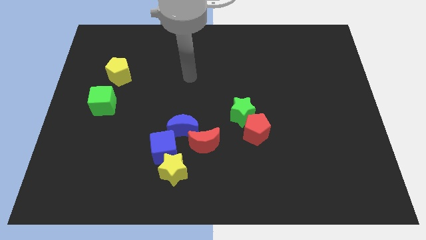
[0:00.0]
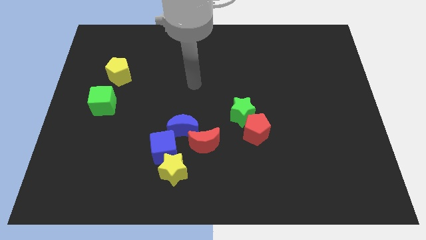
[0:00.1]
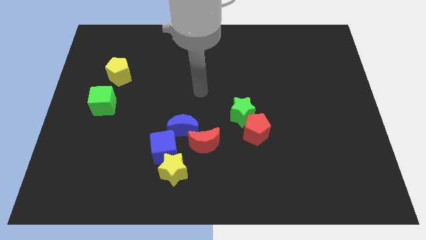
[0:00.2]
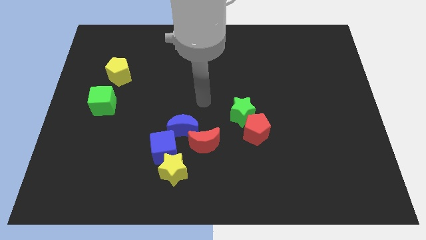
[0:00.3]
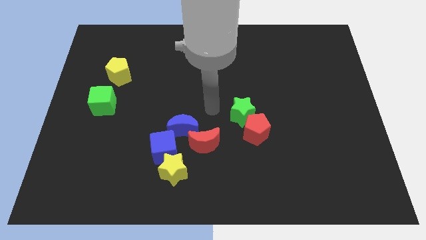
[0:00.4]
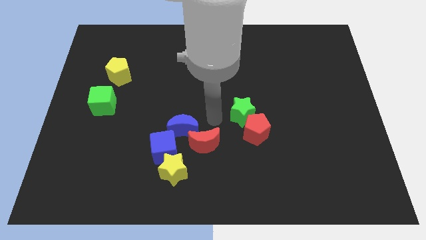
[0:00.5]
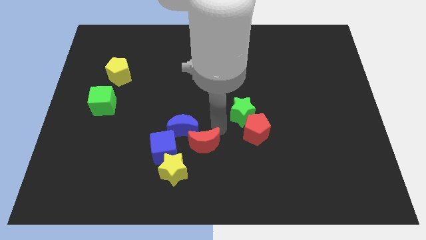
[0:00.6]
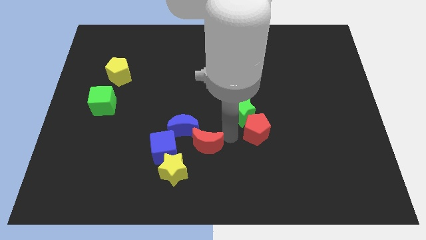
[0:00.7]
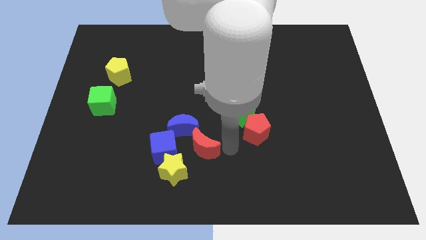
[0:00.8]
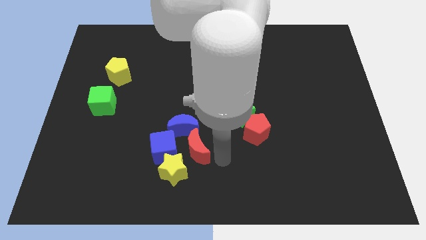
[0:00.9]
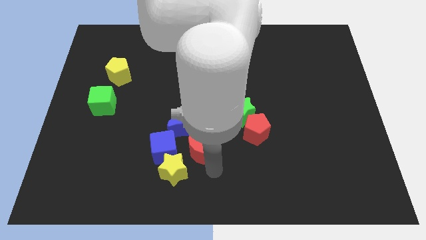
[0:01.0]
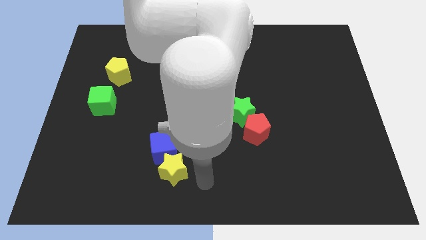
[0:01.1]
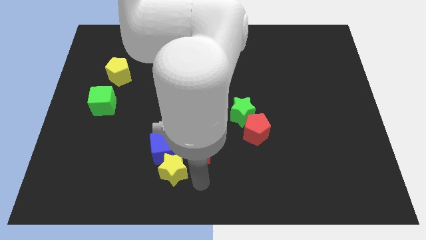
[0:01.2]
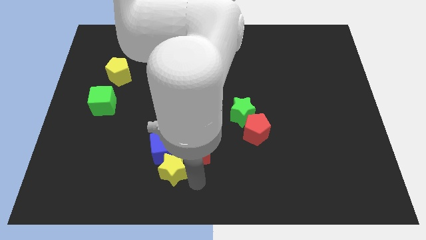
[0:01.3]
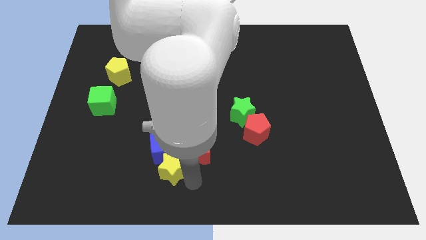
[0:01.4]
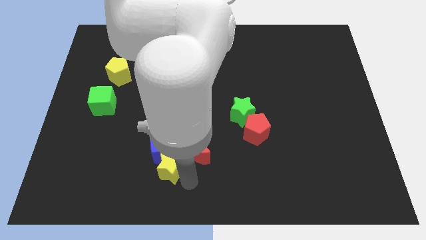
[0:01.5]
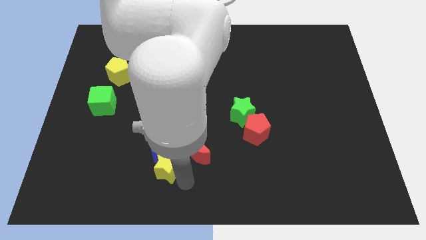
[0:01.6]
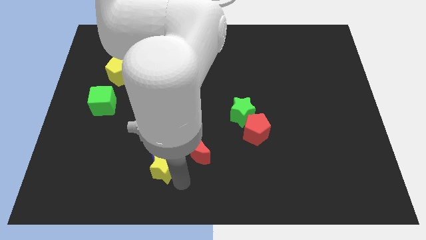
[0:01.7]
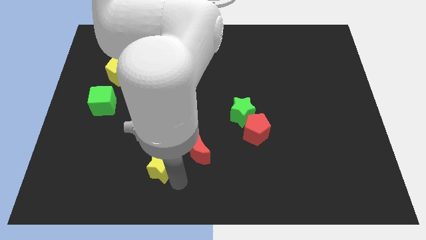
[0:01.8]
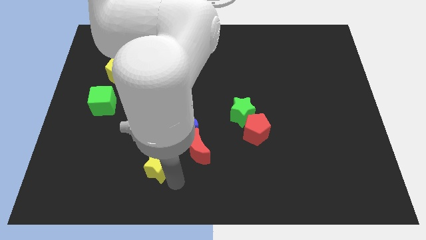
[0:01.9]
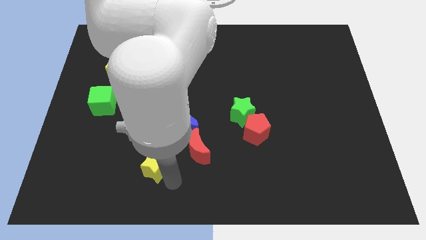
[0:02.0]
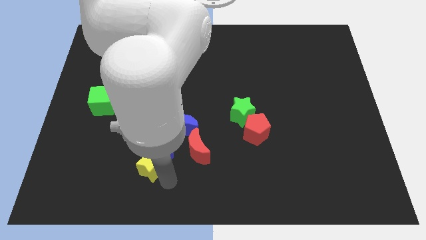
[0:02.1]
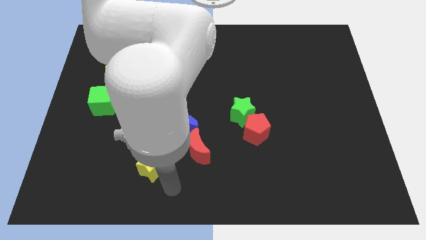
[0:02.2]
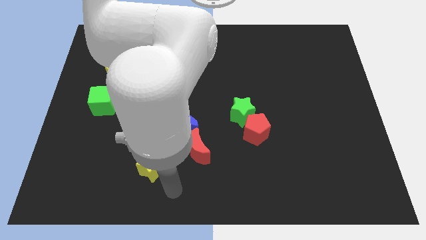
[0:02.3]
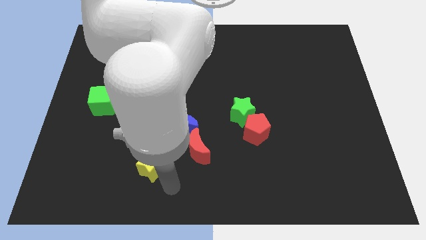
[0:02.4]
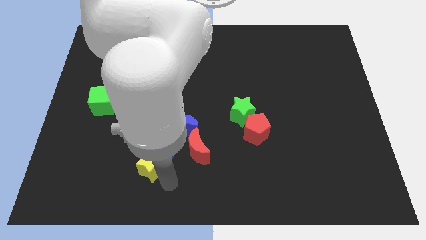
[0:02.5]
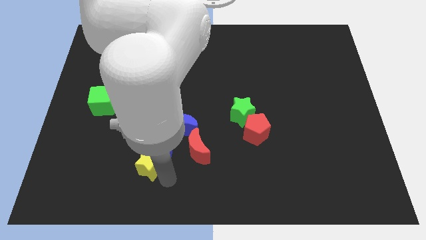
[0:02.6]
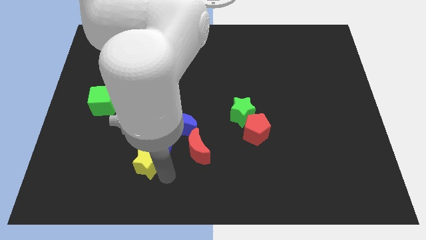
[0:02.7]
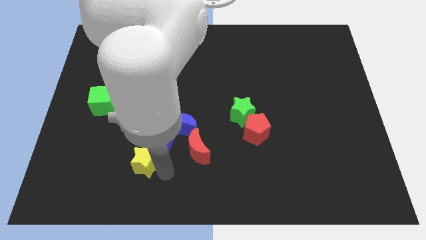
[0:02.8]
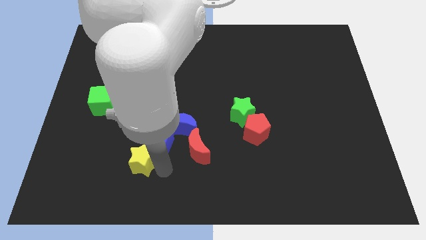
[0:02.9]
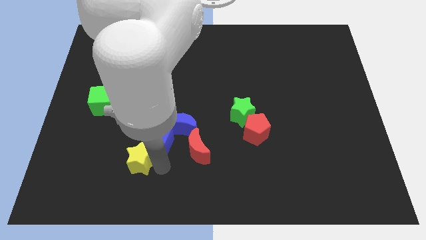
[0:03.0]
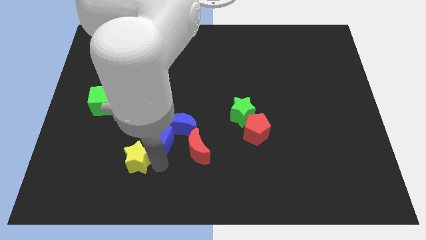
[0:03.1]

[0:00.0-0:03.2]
slide the yellow star a little bit upwards and to the left diagonally

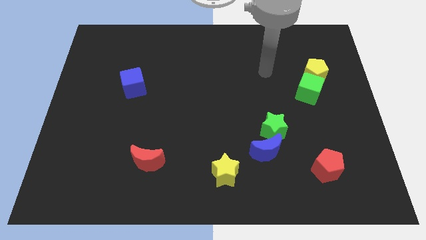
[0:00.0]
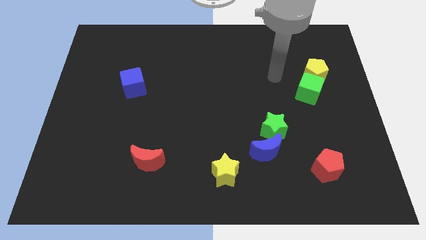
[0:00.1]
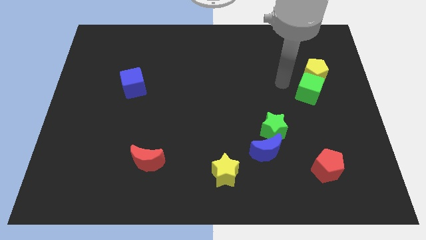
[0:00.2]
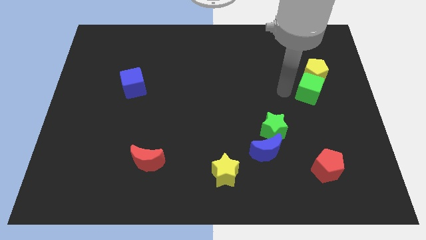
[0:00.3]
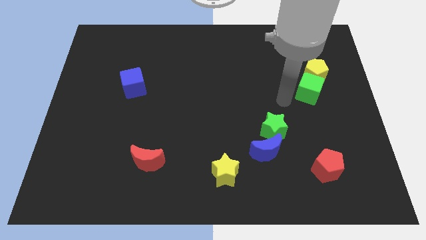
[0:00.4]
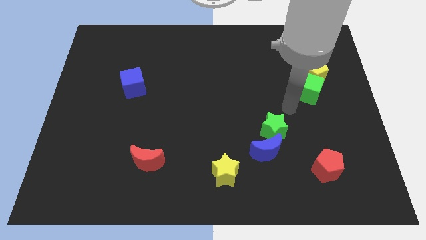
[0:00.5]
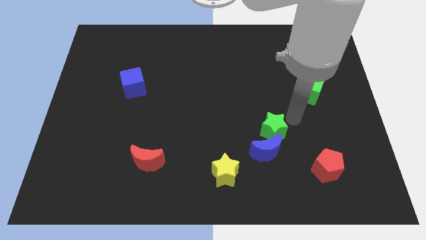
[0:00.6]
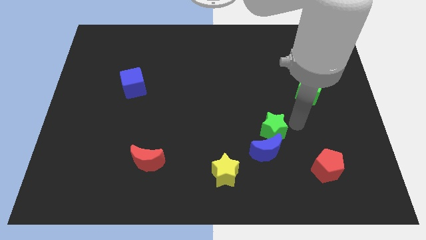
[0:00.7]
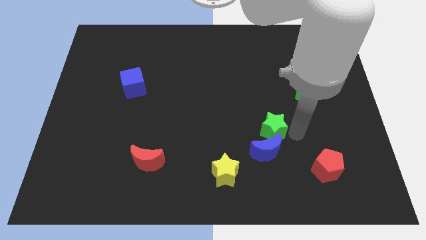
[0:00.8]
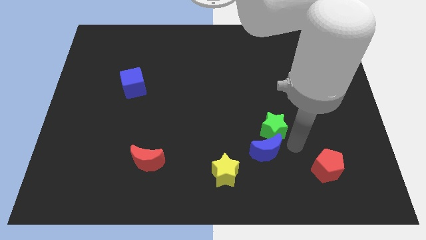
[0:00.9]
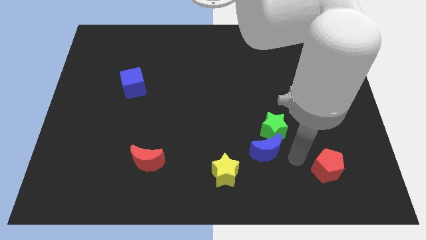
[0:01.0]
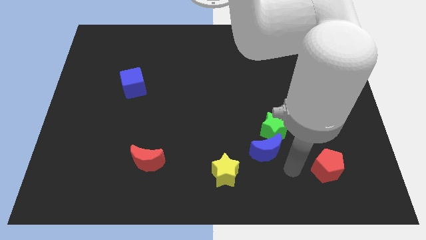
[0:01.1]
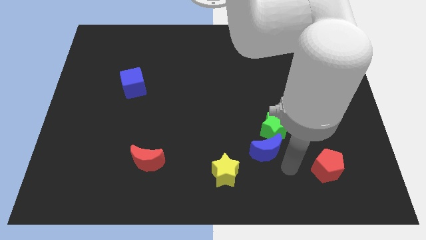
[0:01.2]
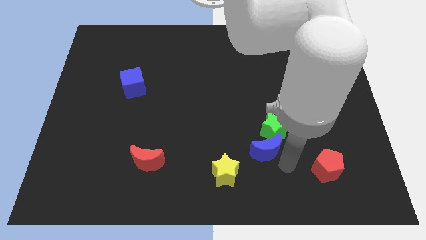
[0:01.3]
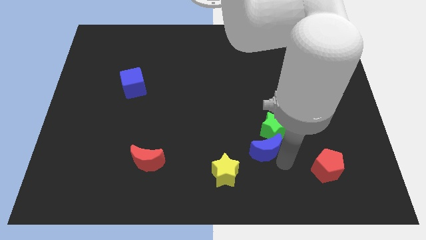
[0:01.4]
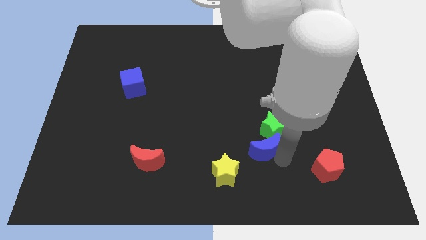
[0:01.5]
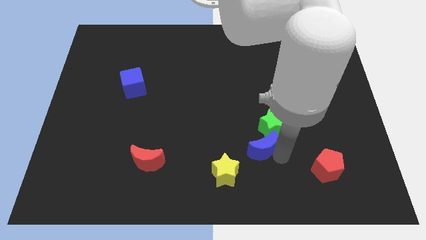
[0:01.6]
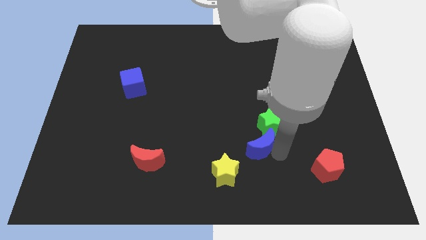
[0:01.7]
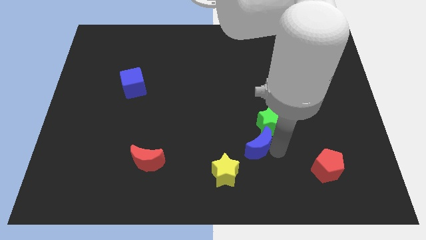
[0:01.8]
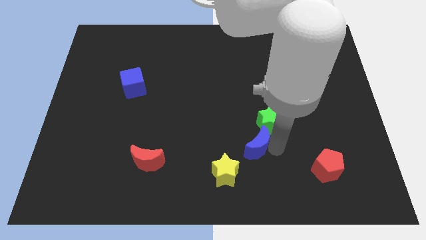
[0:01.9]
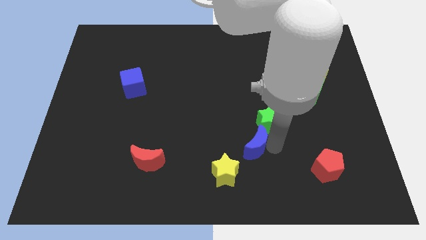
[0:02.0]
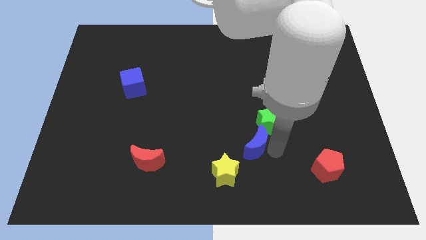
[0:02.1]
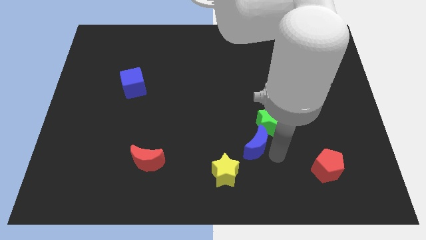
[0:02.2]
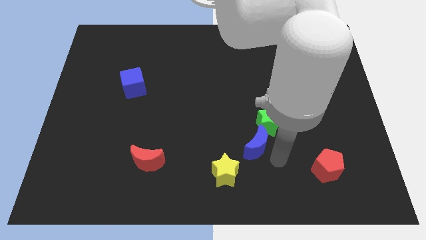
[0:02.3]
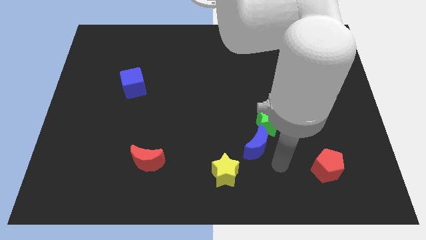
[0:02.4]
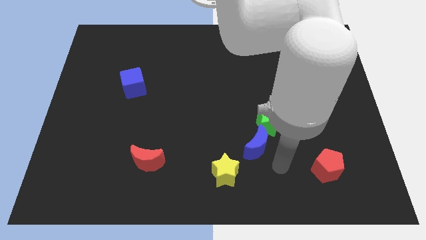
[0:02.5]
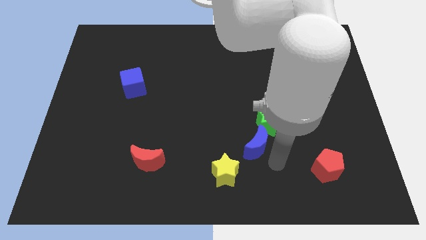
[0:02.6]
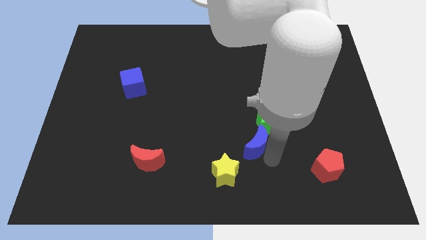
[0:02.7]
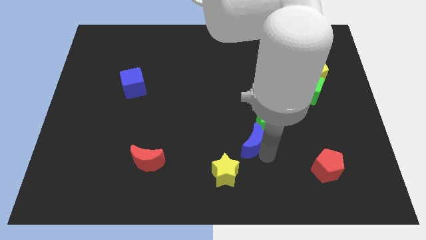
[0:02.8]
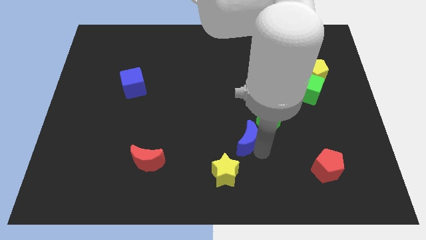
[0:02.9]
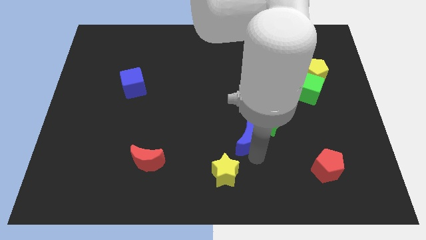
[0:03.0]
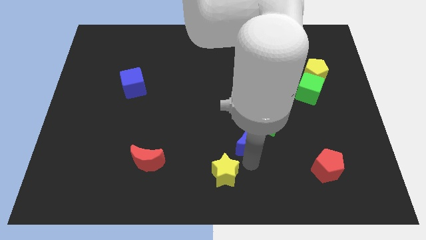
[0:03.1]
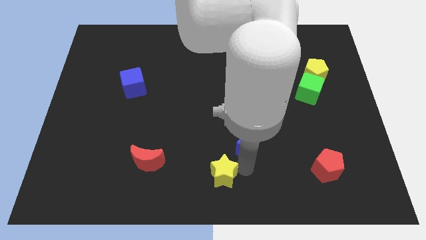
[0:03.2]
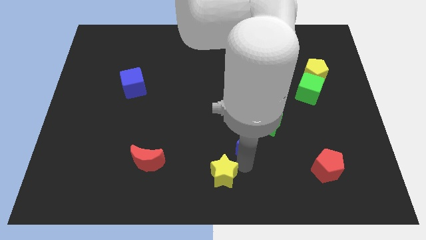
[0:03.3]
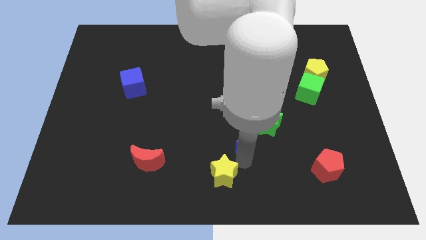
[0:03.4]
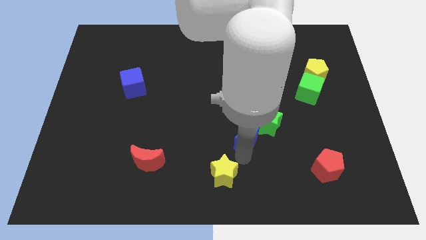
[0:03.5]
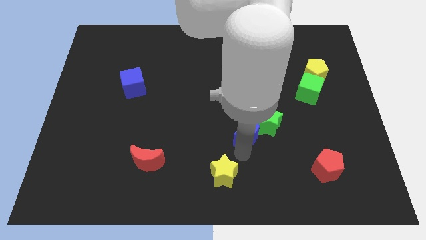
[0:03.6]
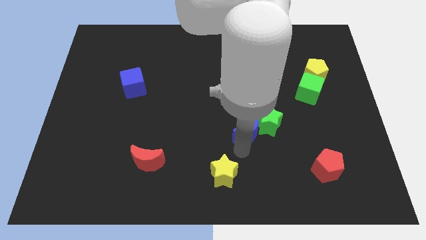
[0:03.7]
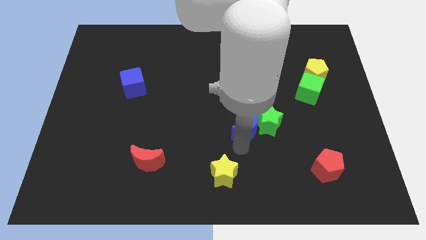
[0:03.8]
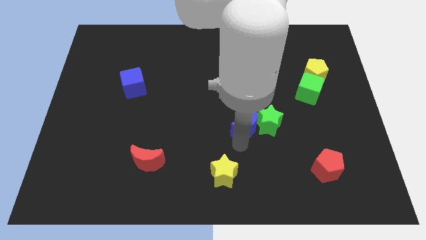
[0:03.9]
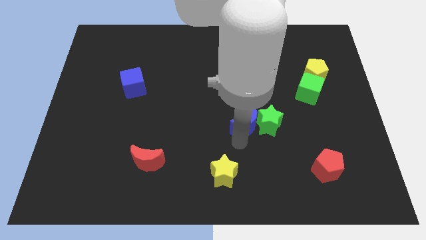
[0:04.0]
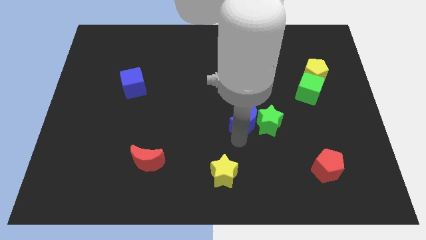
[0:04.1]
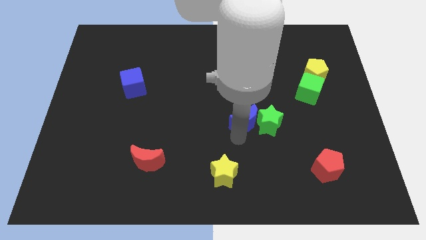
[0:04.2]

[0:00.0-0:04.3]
push the blue moon up a bit

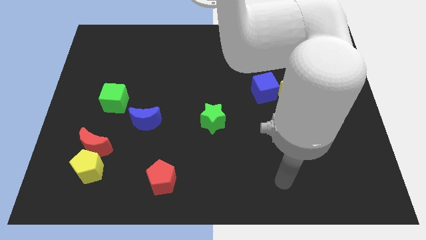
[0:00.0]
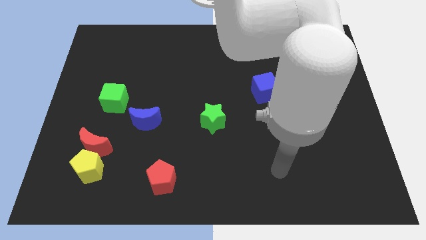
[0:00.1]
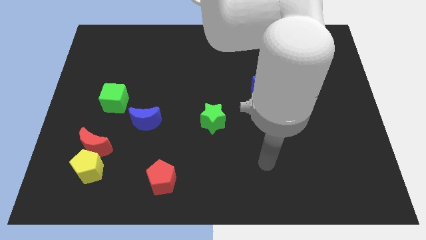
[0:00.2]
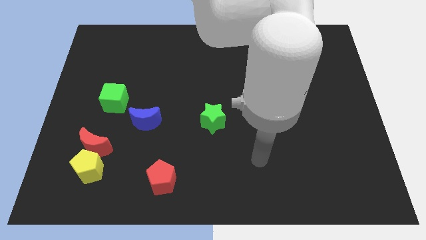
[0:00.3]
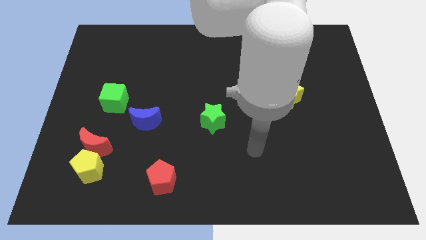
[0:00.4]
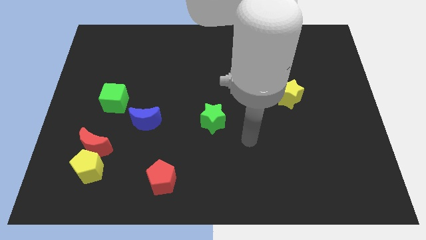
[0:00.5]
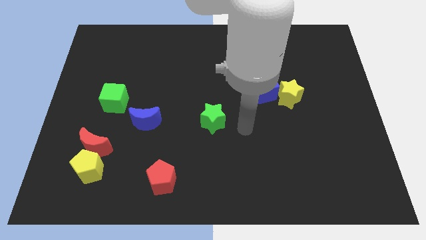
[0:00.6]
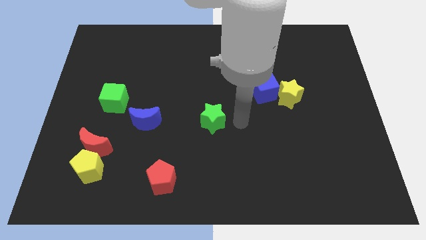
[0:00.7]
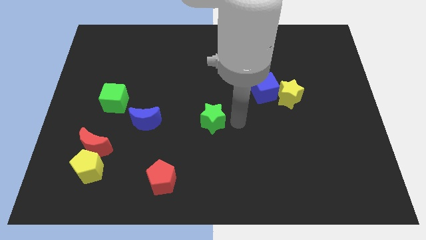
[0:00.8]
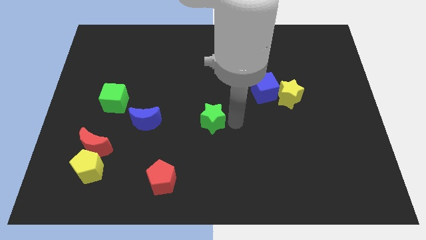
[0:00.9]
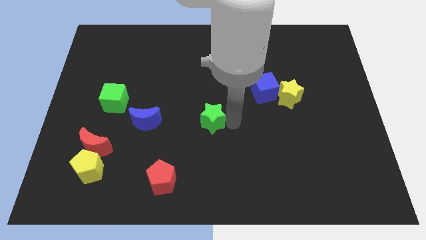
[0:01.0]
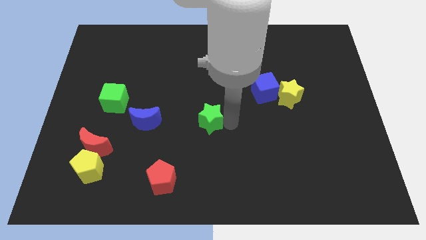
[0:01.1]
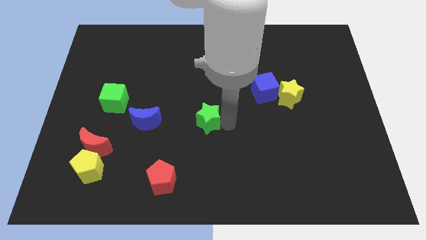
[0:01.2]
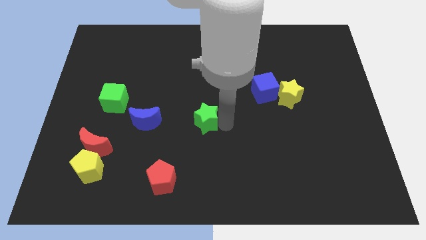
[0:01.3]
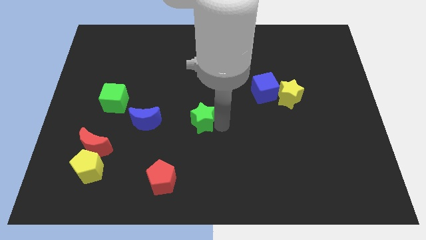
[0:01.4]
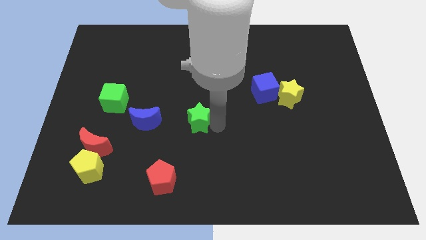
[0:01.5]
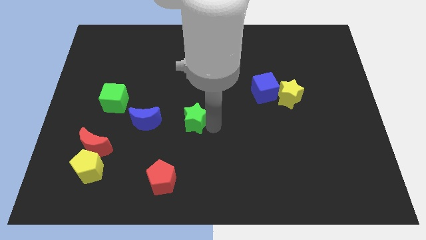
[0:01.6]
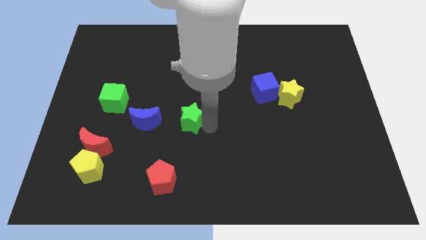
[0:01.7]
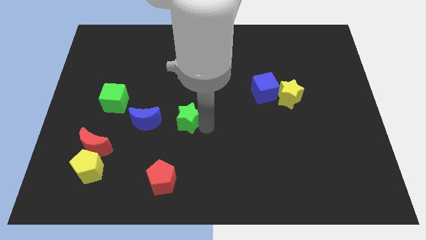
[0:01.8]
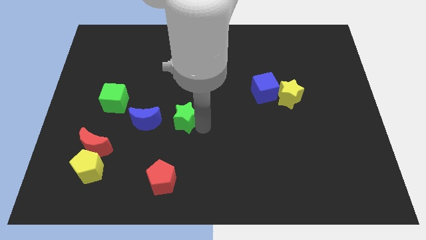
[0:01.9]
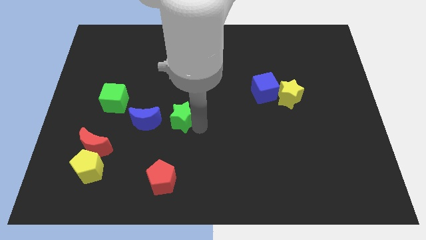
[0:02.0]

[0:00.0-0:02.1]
move the green star somewhat to the left
